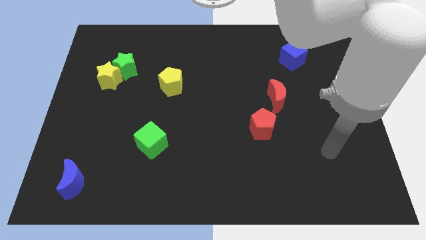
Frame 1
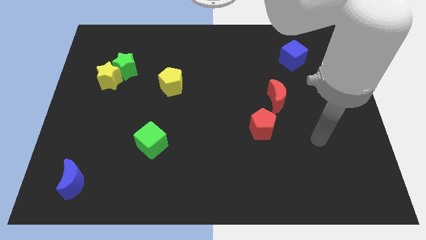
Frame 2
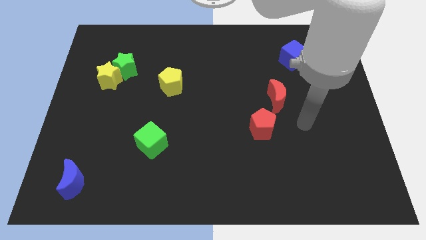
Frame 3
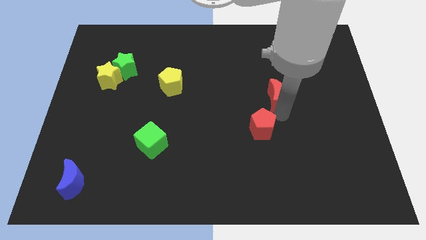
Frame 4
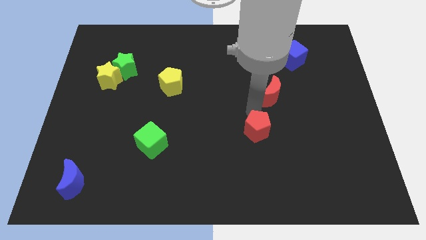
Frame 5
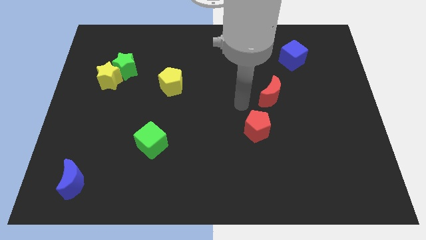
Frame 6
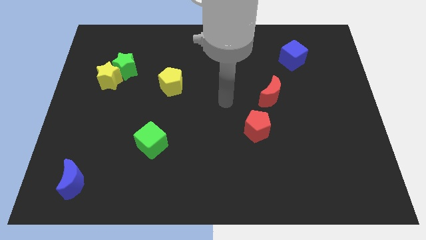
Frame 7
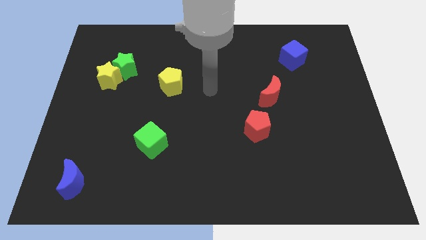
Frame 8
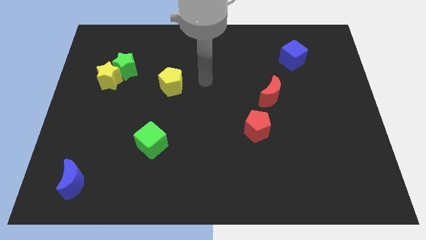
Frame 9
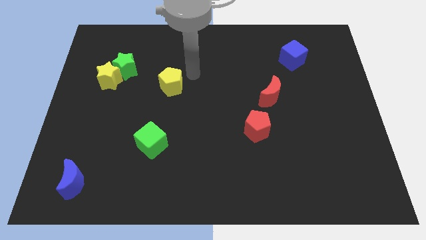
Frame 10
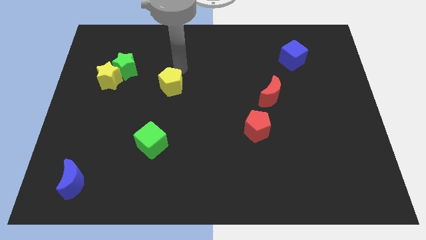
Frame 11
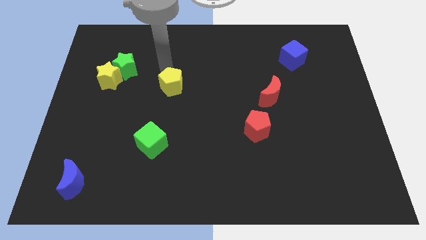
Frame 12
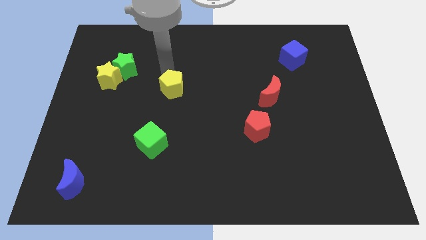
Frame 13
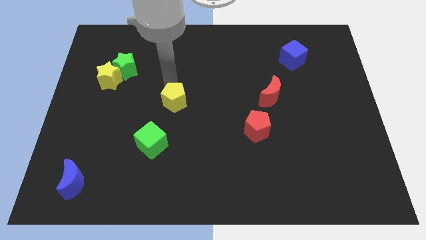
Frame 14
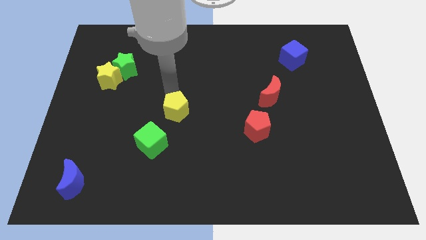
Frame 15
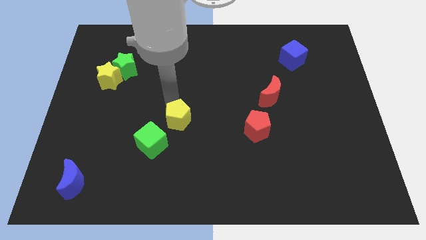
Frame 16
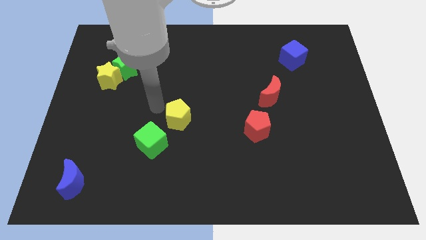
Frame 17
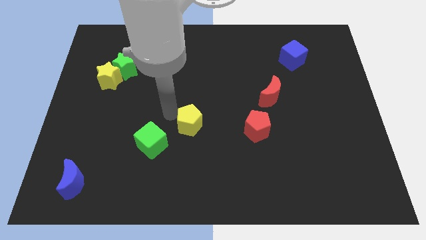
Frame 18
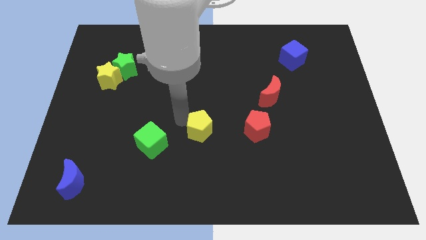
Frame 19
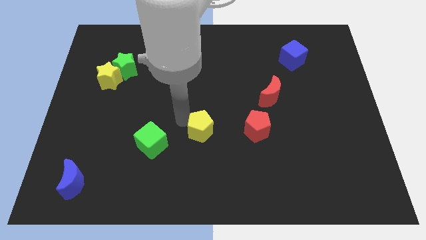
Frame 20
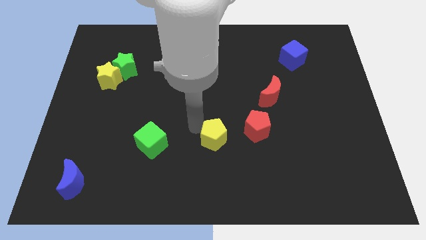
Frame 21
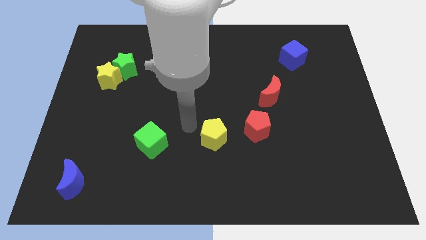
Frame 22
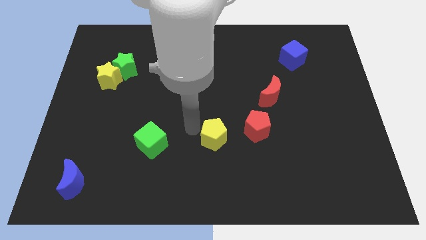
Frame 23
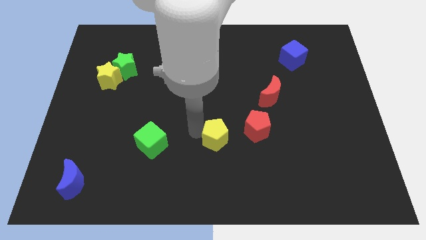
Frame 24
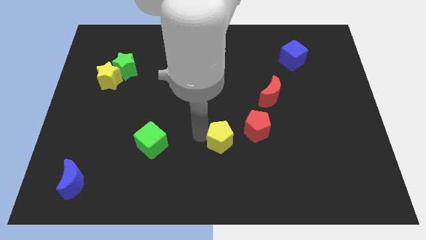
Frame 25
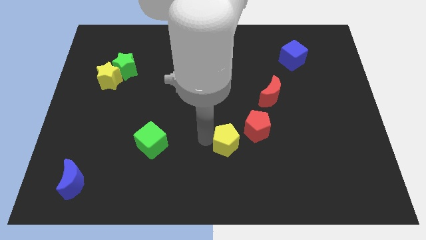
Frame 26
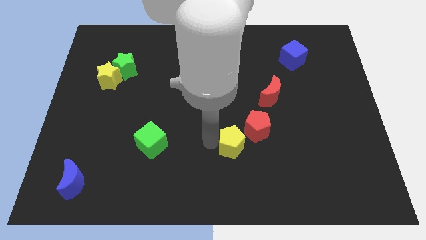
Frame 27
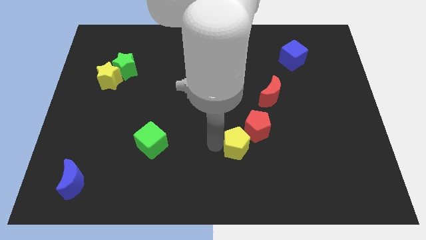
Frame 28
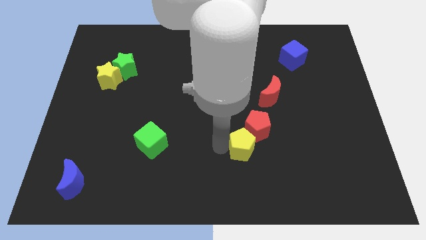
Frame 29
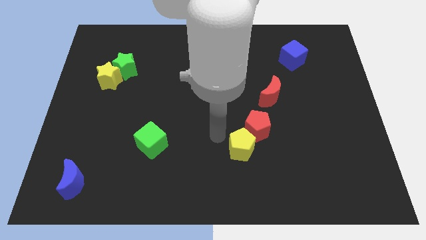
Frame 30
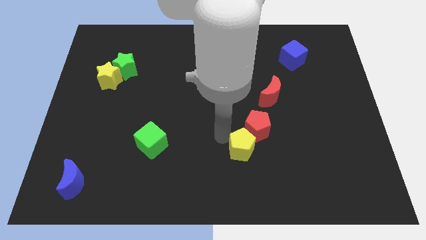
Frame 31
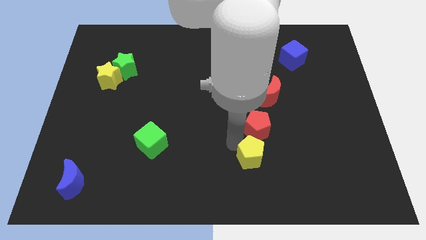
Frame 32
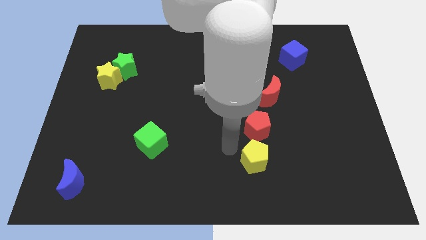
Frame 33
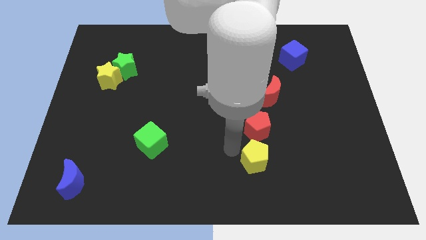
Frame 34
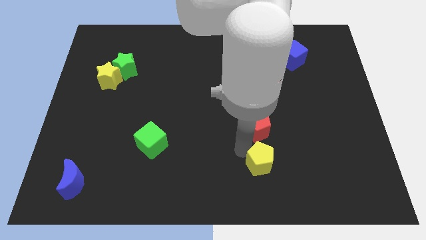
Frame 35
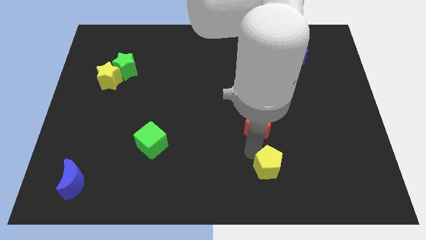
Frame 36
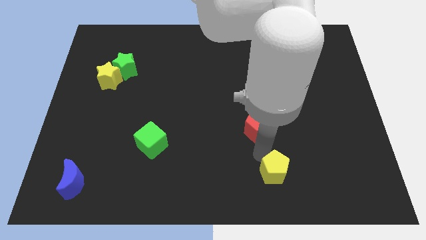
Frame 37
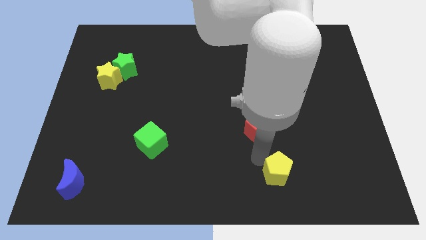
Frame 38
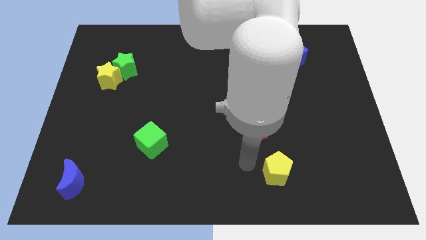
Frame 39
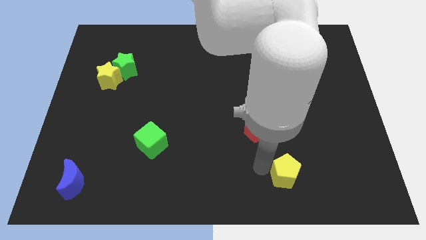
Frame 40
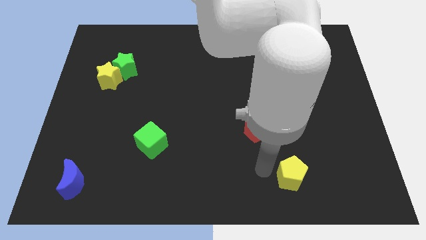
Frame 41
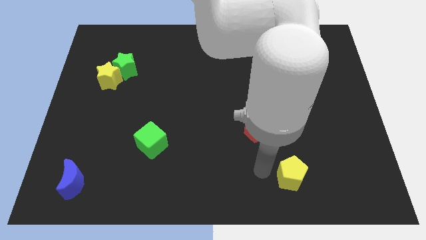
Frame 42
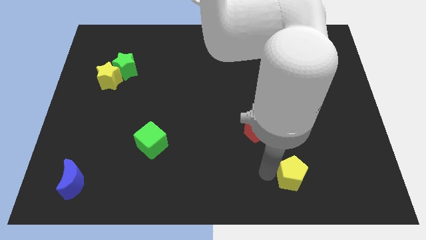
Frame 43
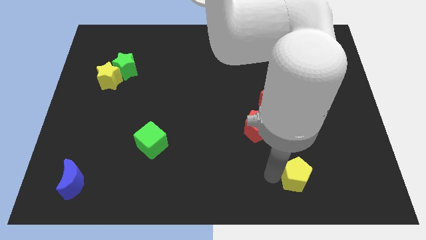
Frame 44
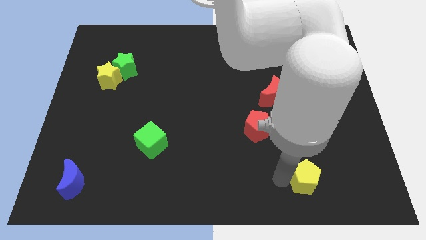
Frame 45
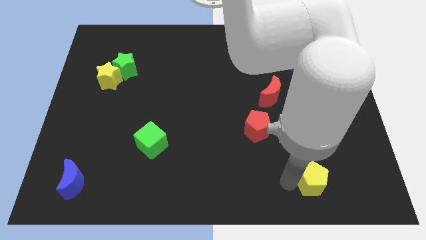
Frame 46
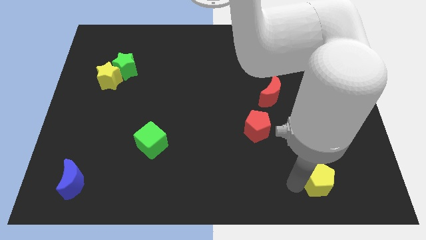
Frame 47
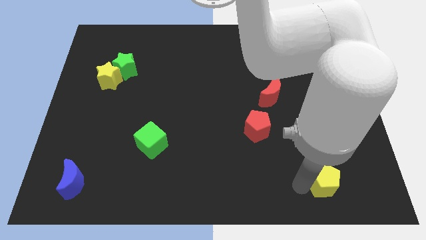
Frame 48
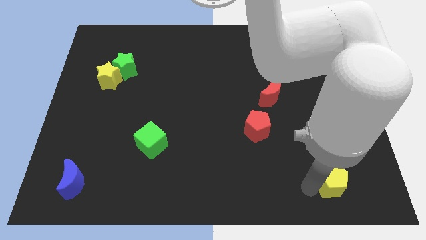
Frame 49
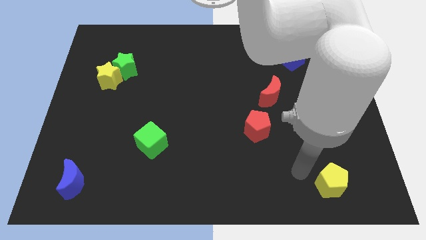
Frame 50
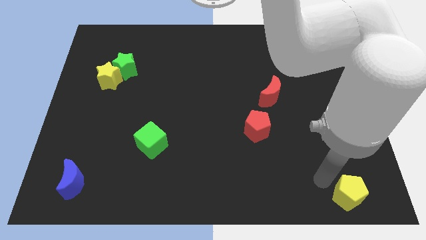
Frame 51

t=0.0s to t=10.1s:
put the yellow pentagon to the bottom right corner
